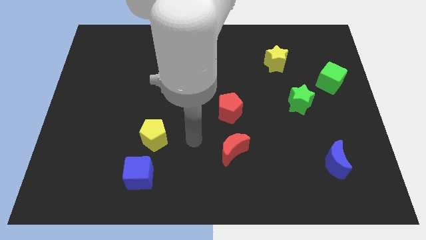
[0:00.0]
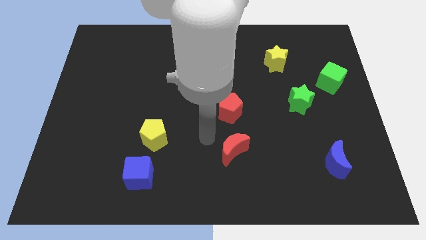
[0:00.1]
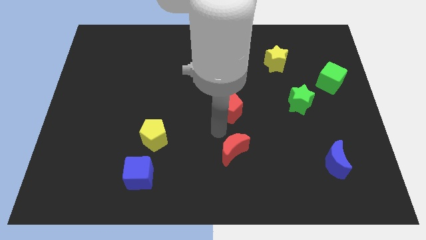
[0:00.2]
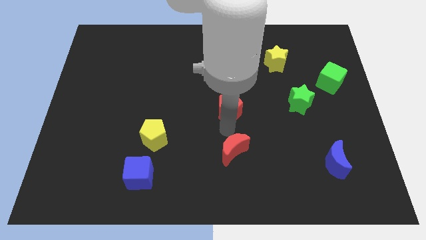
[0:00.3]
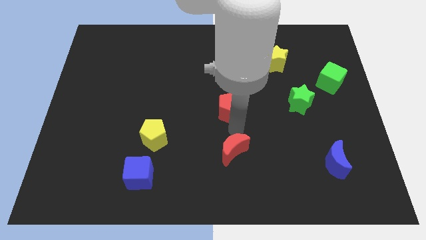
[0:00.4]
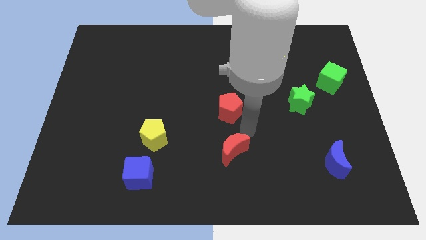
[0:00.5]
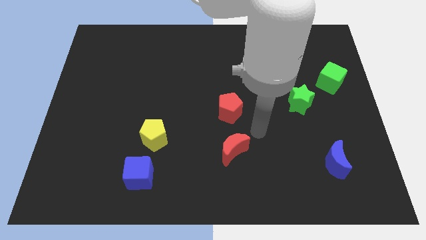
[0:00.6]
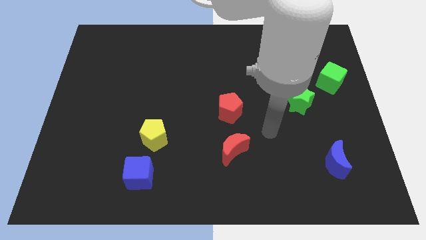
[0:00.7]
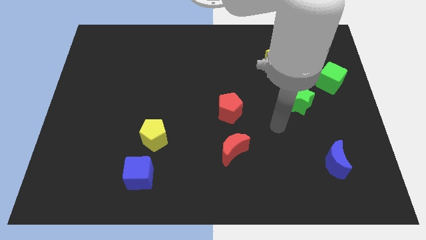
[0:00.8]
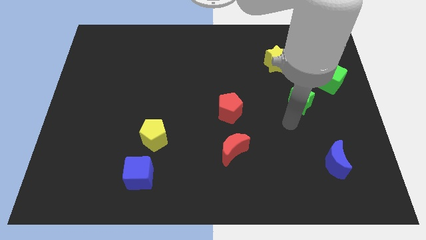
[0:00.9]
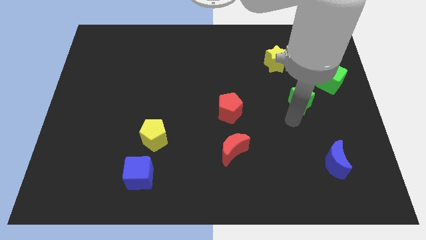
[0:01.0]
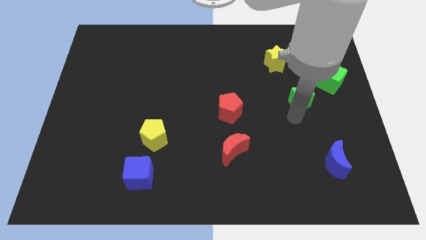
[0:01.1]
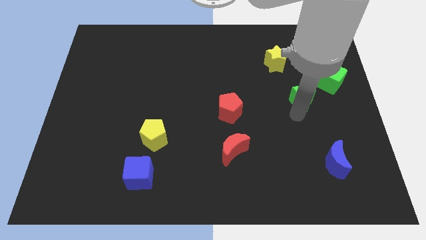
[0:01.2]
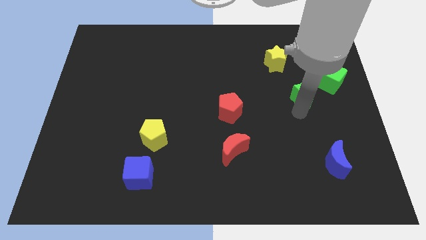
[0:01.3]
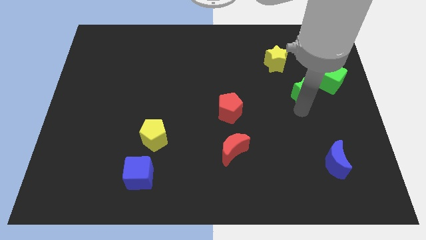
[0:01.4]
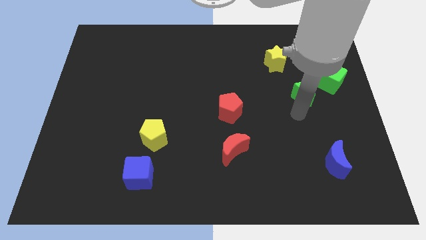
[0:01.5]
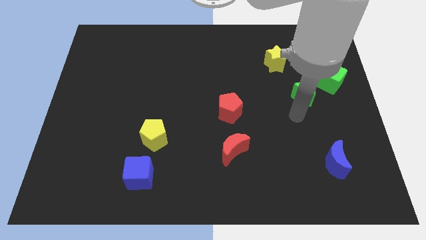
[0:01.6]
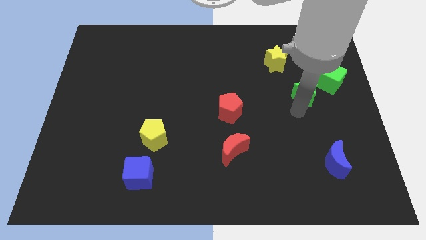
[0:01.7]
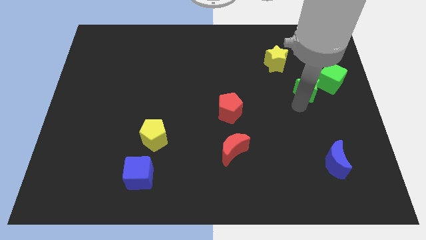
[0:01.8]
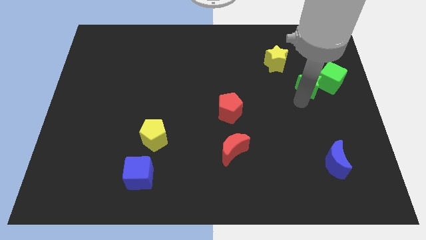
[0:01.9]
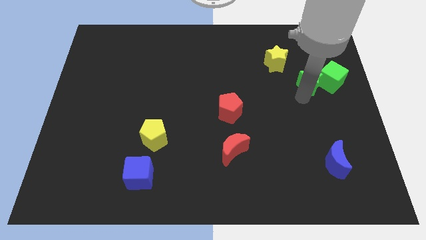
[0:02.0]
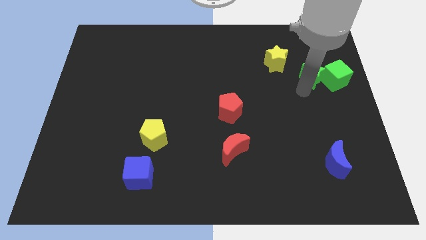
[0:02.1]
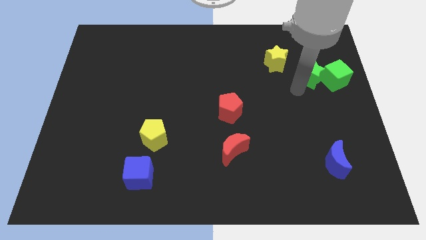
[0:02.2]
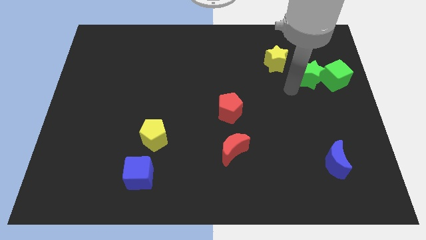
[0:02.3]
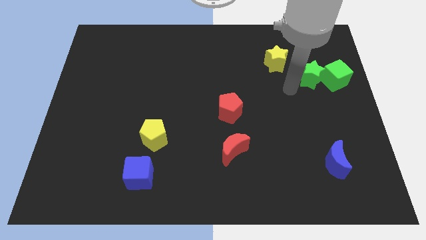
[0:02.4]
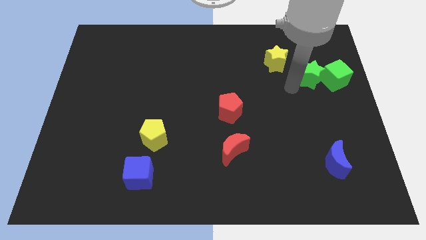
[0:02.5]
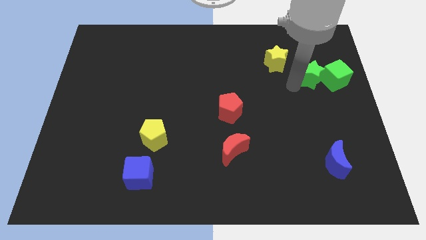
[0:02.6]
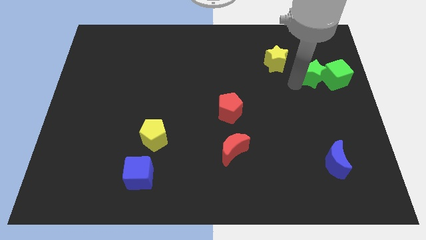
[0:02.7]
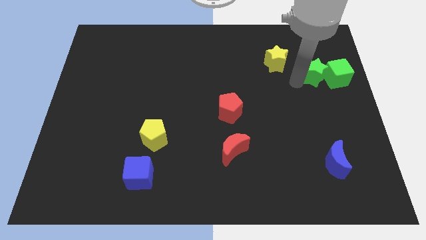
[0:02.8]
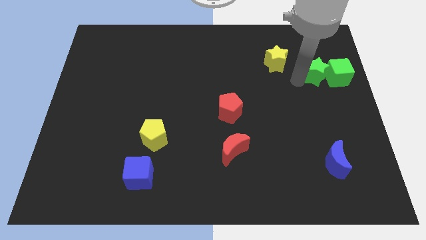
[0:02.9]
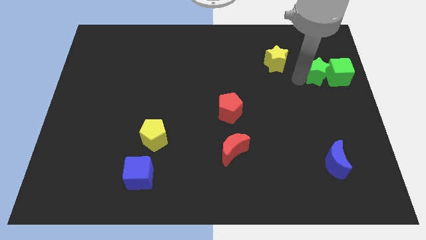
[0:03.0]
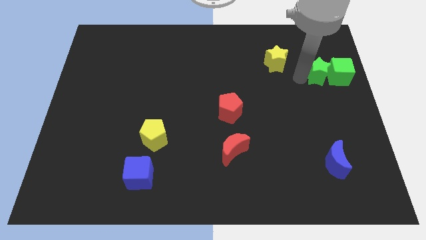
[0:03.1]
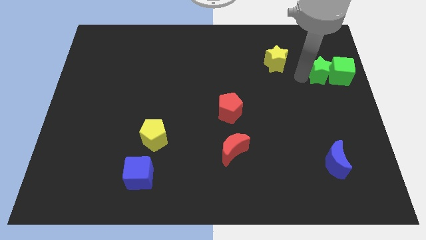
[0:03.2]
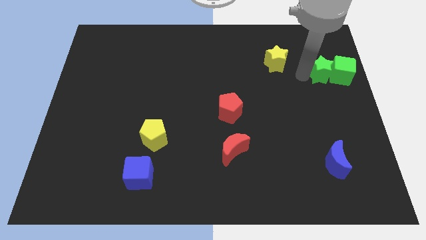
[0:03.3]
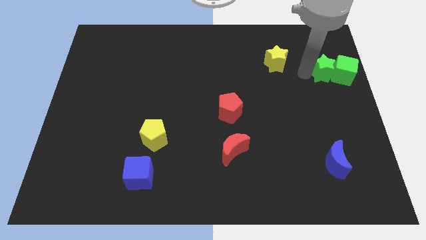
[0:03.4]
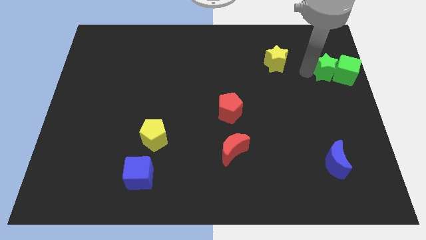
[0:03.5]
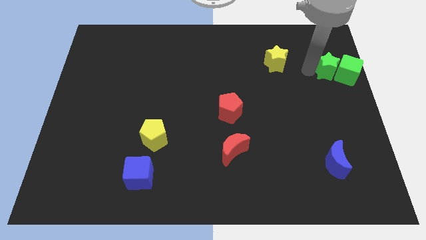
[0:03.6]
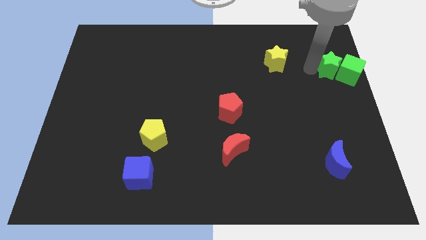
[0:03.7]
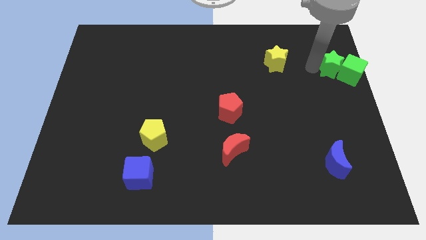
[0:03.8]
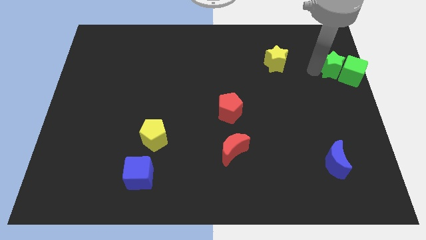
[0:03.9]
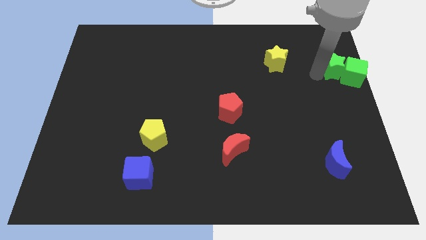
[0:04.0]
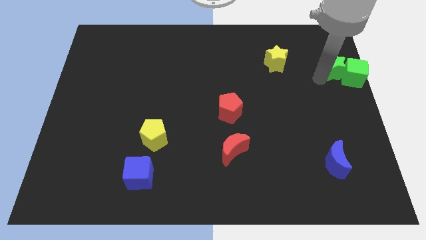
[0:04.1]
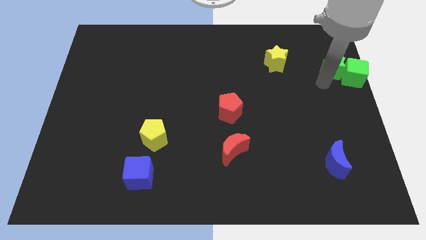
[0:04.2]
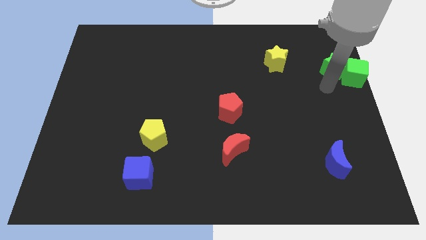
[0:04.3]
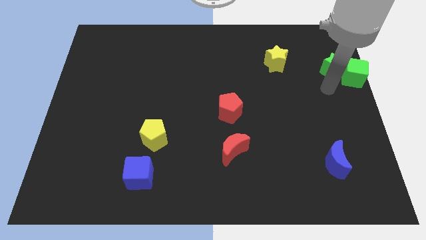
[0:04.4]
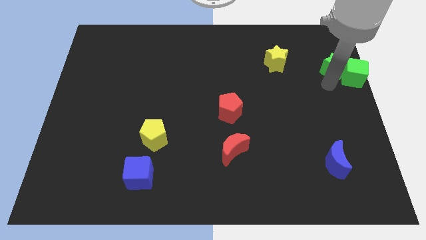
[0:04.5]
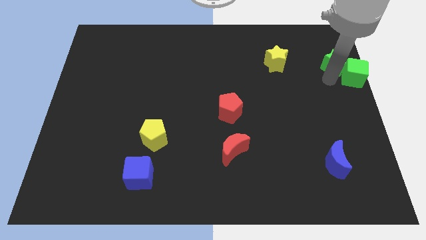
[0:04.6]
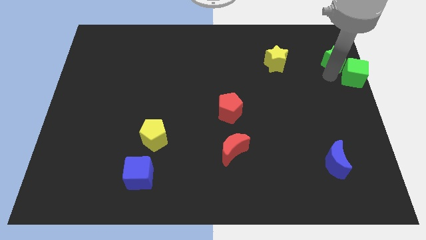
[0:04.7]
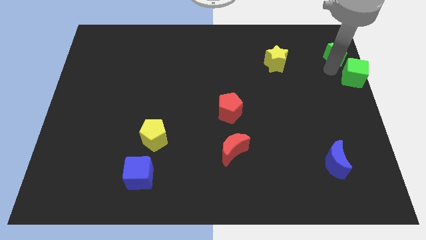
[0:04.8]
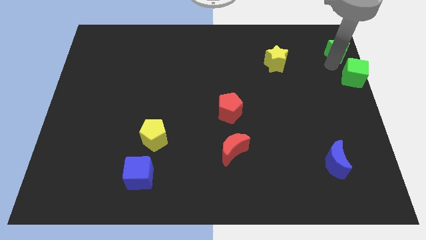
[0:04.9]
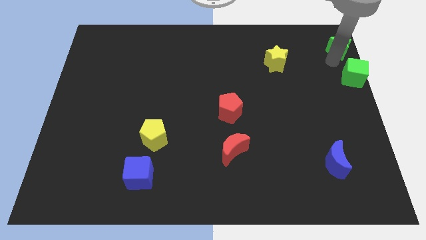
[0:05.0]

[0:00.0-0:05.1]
push the green star to the top right of the board

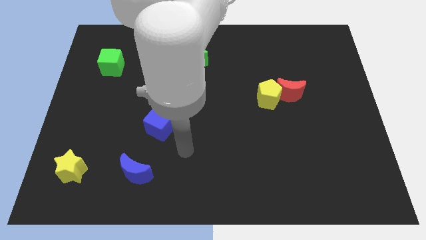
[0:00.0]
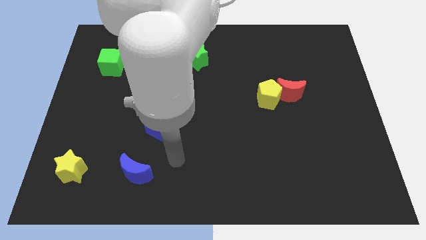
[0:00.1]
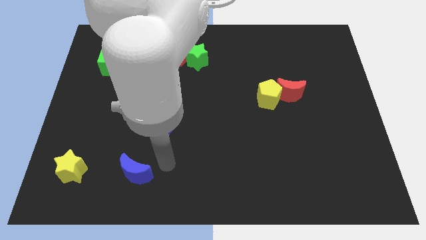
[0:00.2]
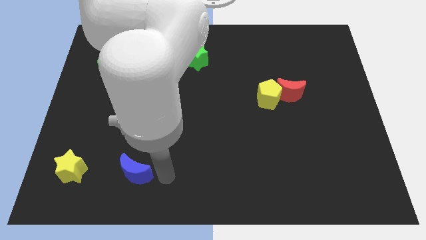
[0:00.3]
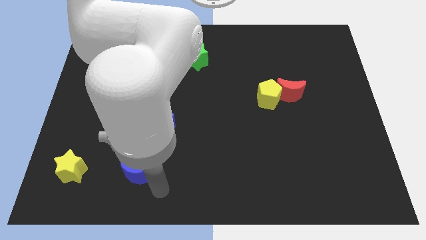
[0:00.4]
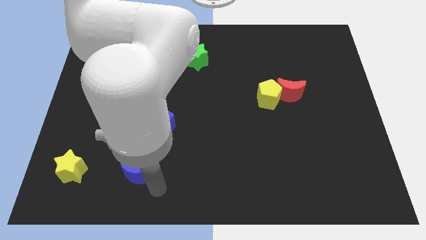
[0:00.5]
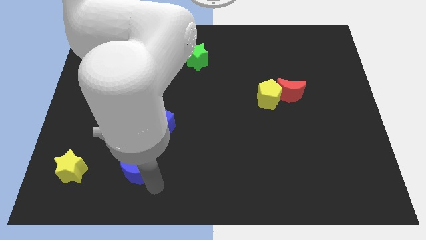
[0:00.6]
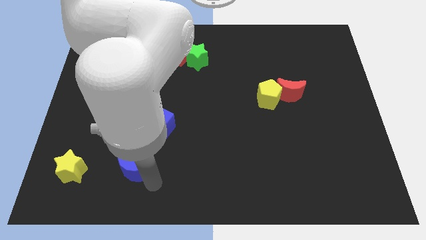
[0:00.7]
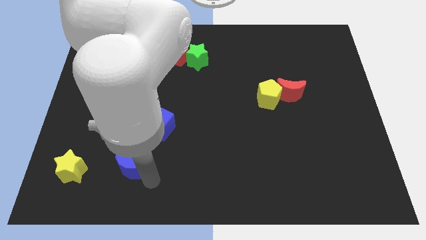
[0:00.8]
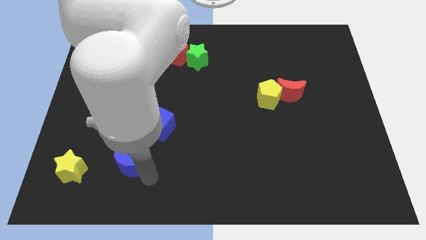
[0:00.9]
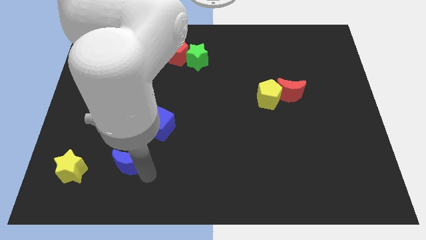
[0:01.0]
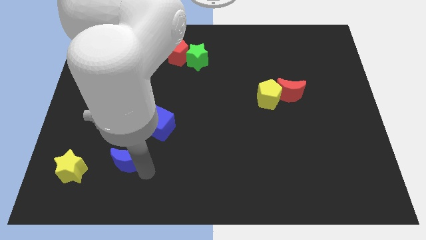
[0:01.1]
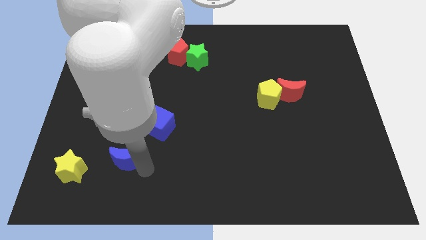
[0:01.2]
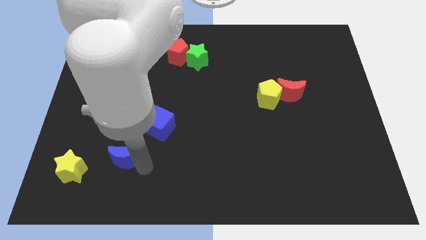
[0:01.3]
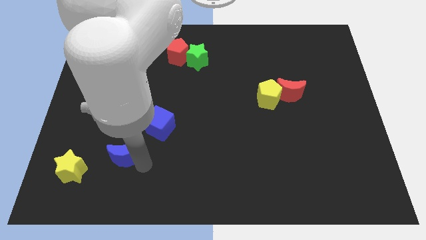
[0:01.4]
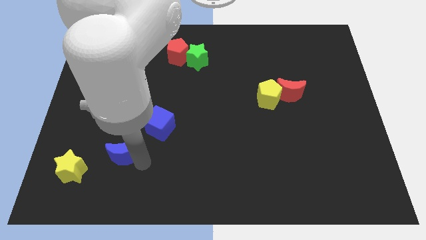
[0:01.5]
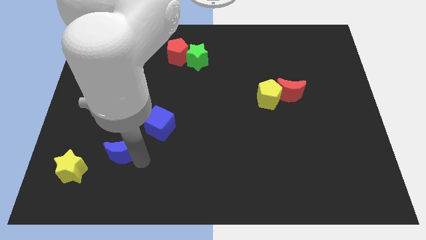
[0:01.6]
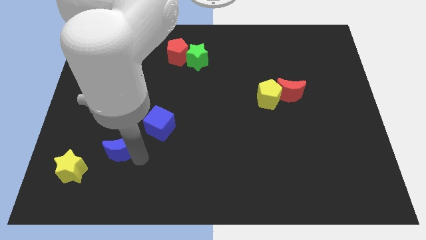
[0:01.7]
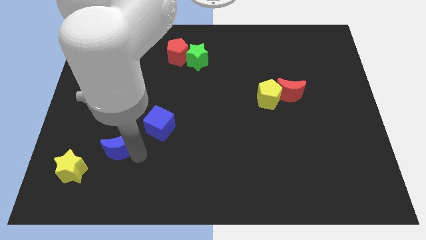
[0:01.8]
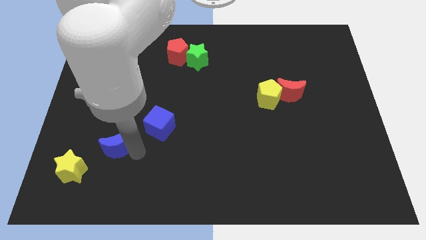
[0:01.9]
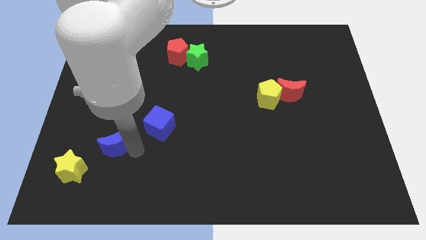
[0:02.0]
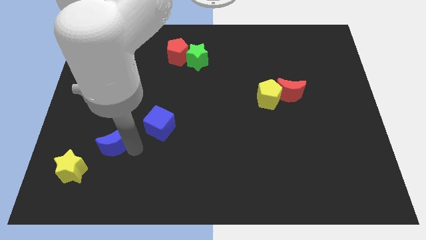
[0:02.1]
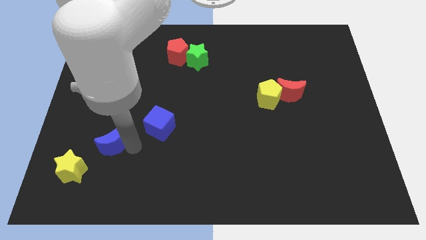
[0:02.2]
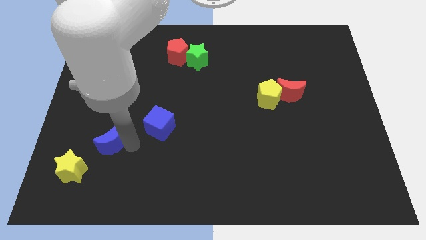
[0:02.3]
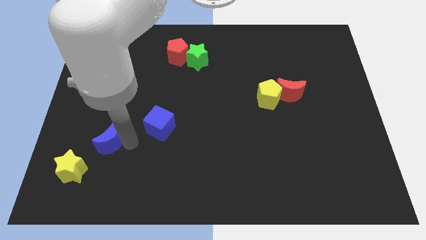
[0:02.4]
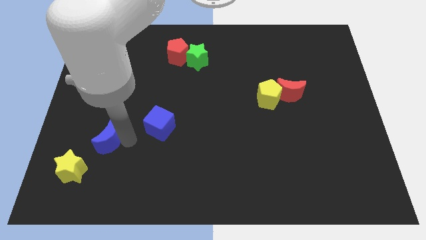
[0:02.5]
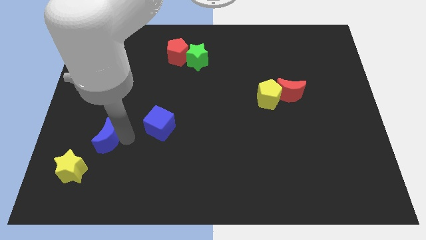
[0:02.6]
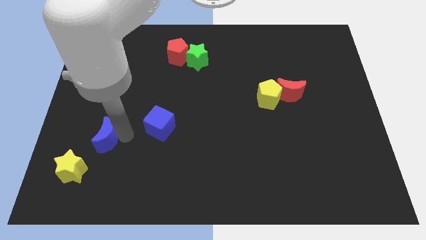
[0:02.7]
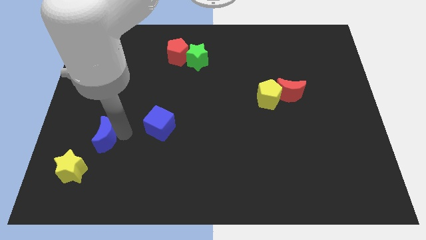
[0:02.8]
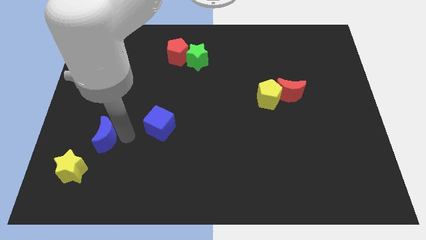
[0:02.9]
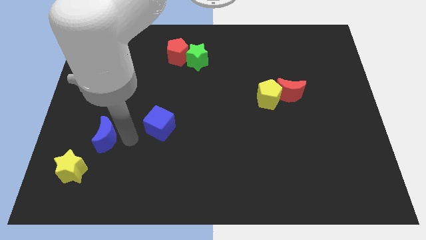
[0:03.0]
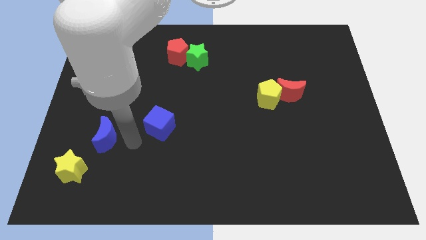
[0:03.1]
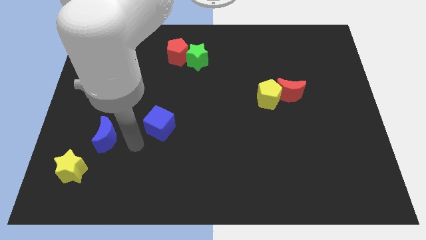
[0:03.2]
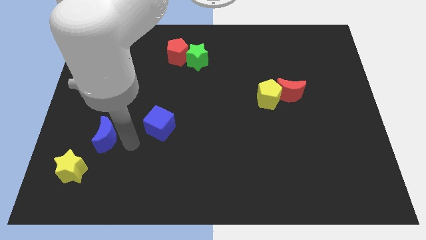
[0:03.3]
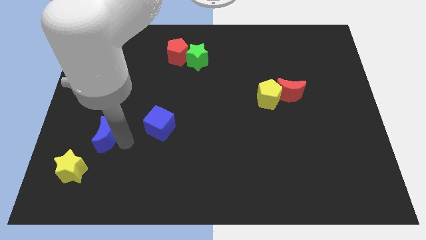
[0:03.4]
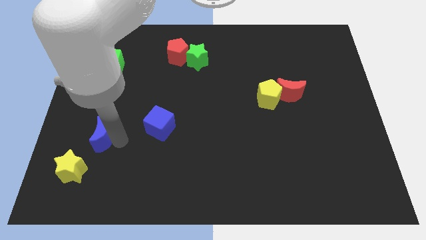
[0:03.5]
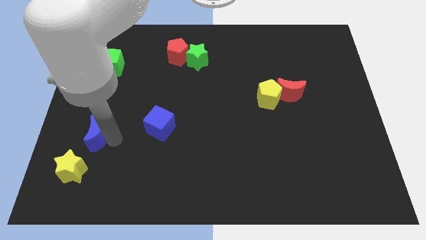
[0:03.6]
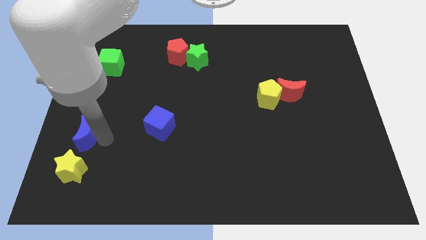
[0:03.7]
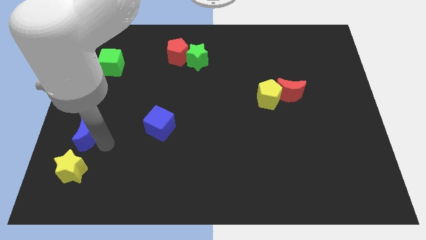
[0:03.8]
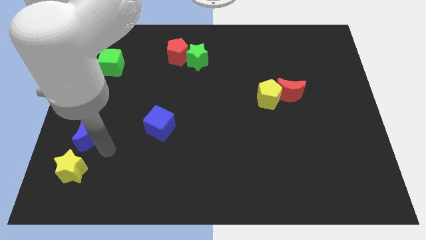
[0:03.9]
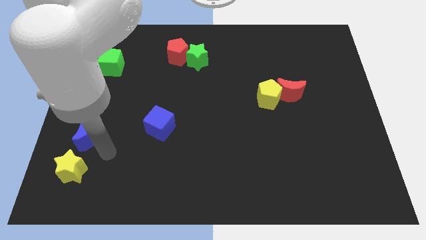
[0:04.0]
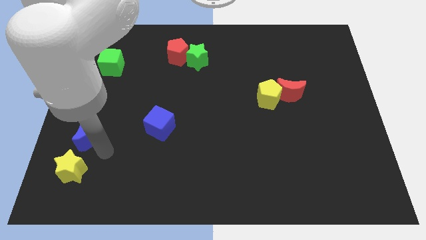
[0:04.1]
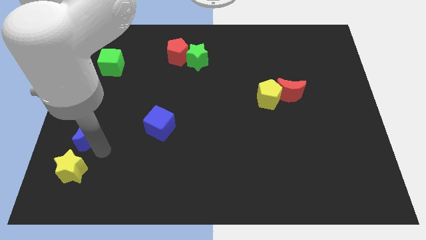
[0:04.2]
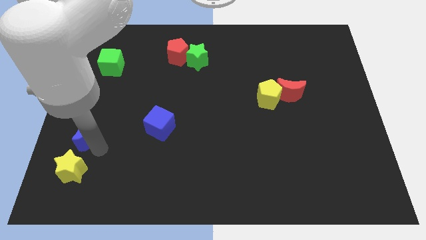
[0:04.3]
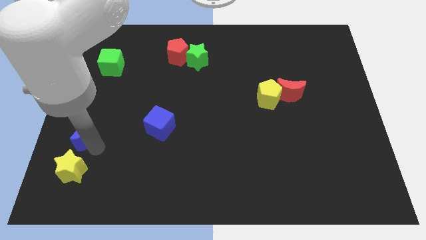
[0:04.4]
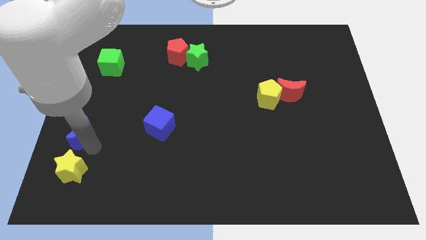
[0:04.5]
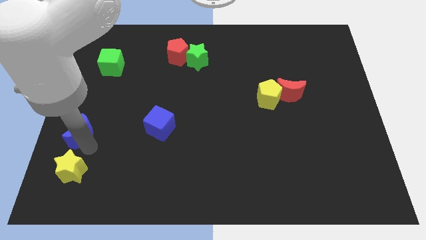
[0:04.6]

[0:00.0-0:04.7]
move the blue moon to the left side
